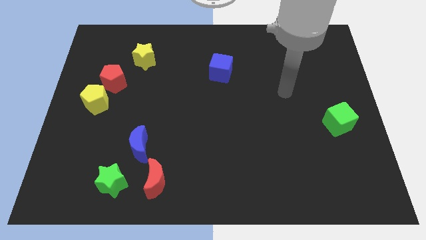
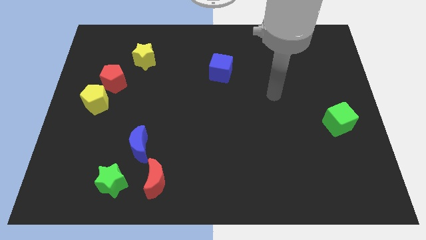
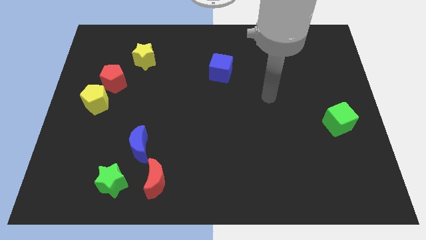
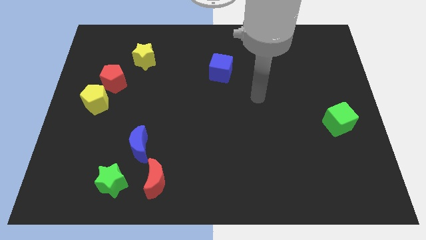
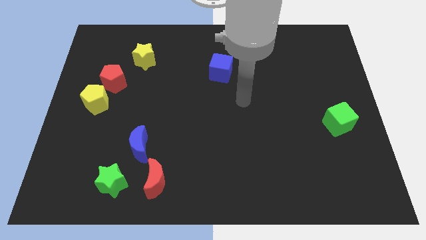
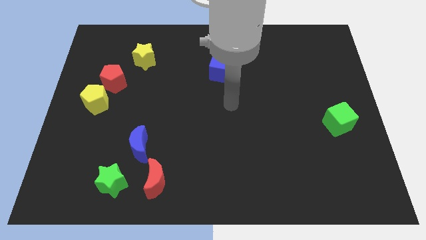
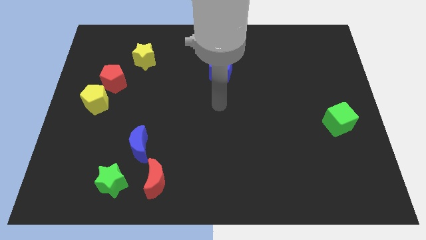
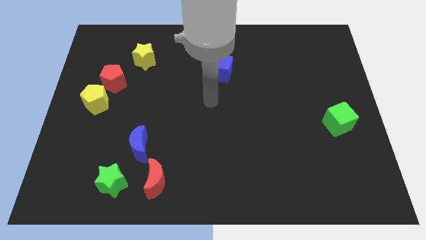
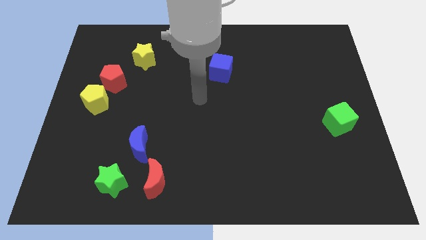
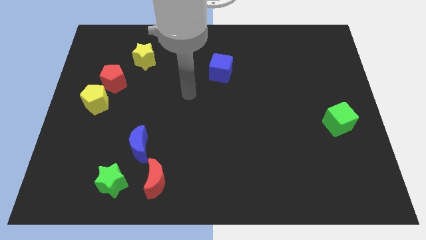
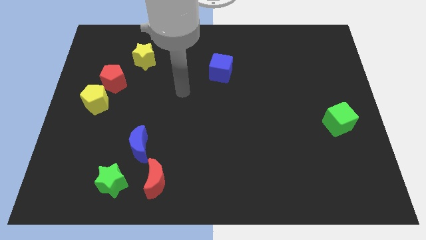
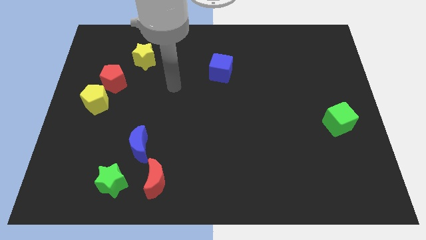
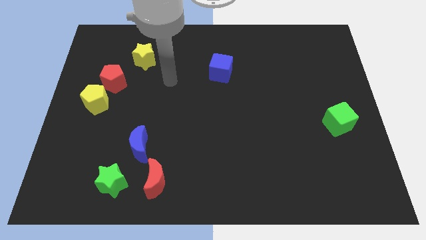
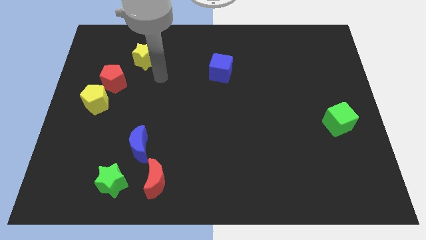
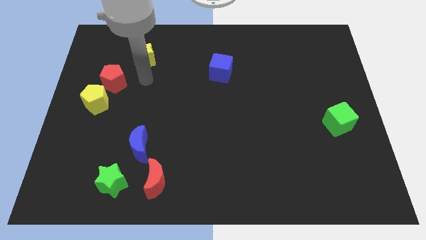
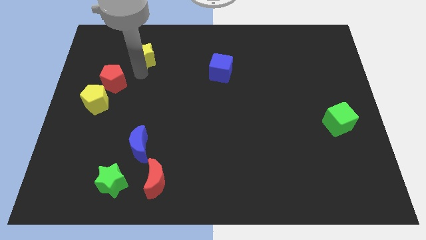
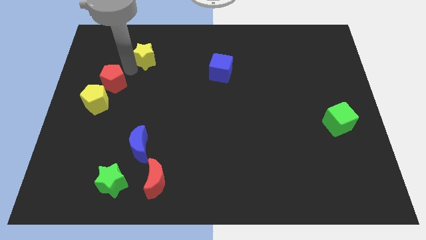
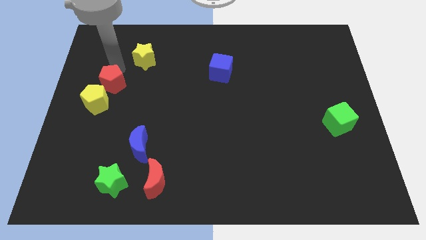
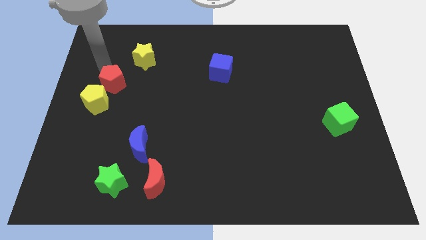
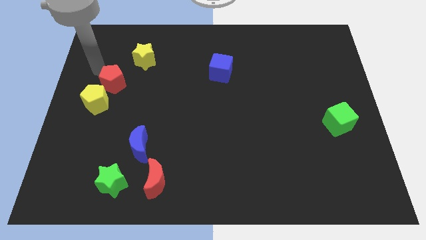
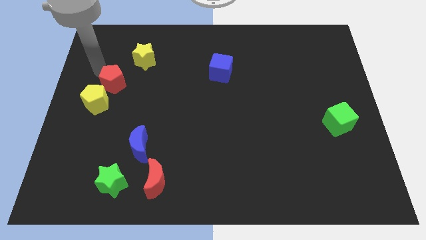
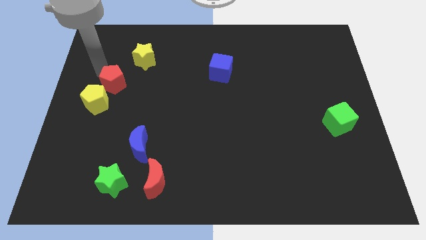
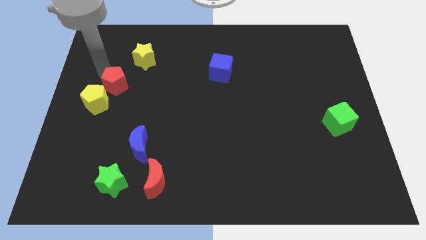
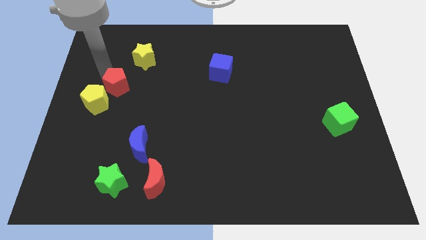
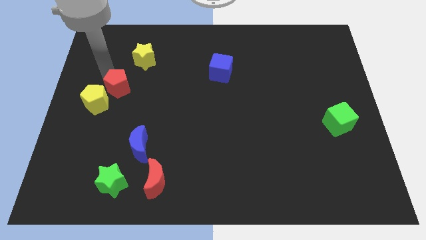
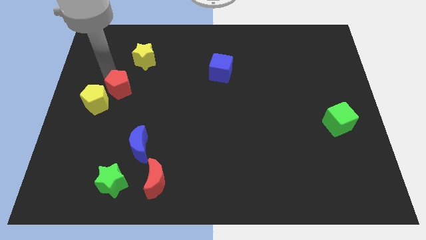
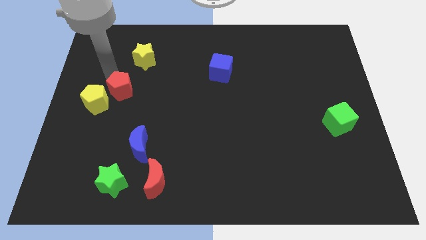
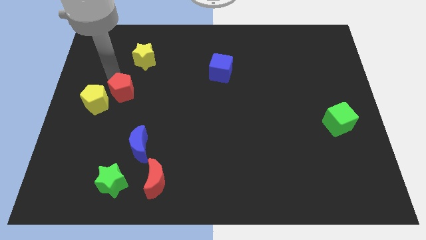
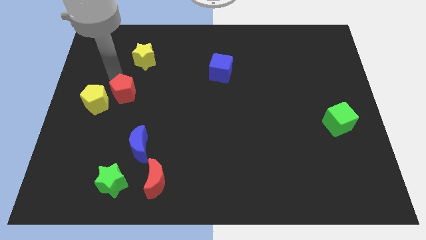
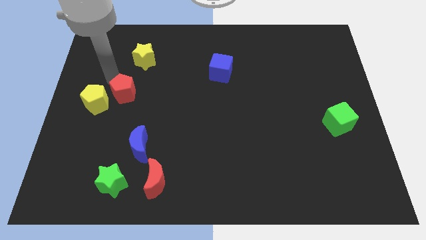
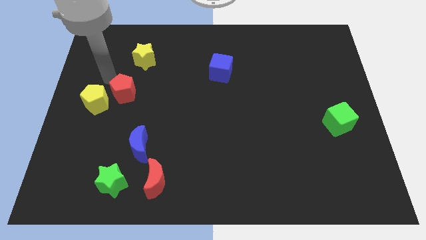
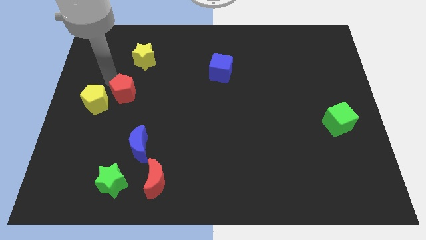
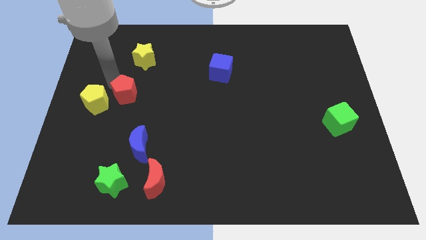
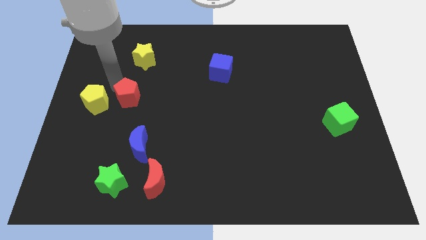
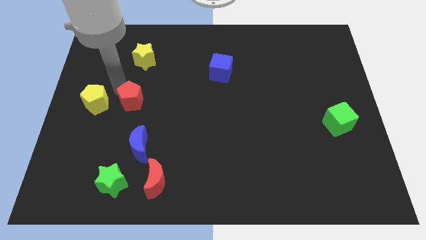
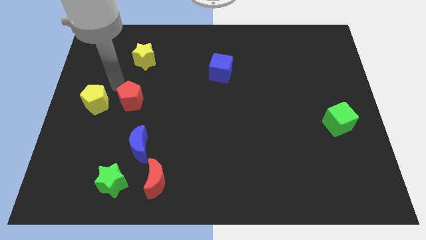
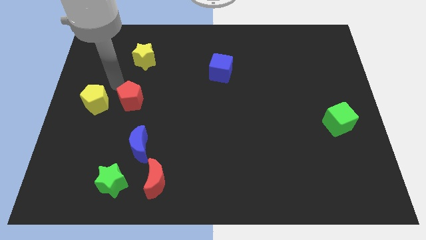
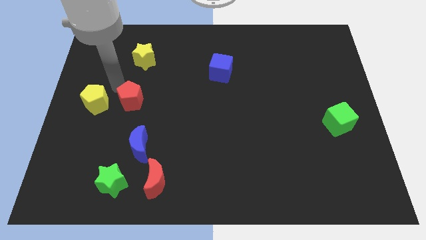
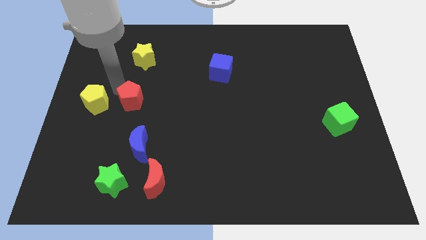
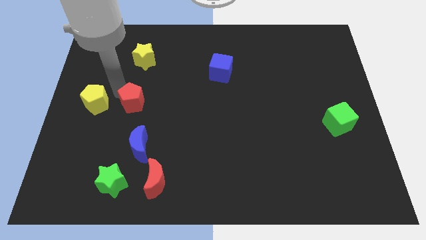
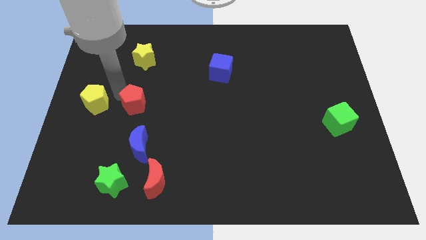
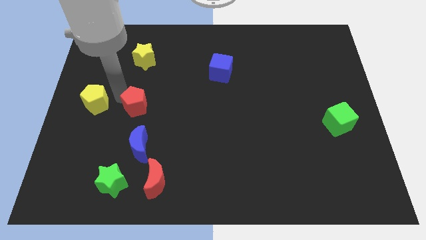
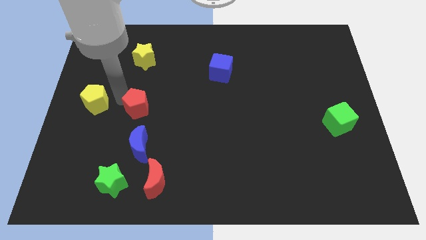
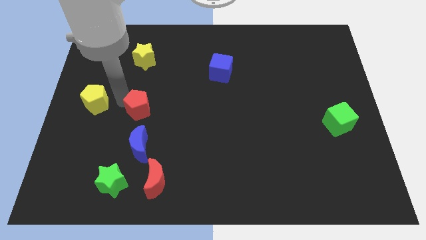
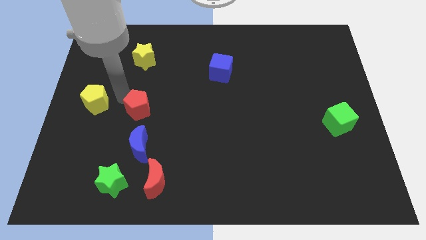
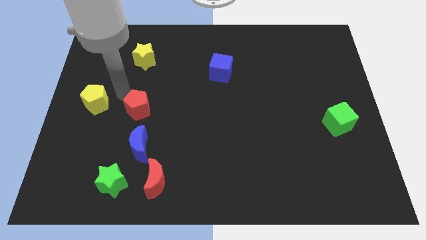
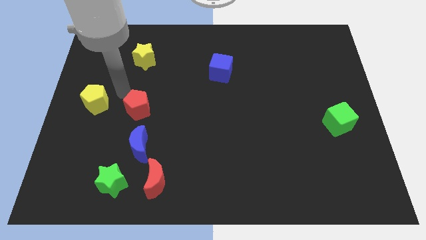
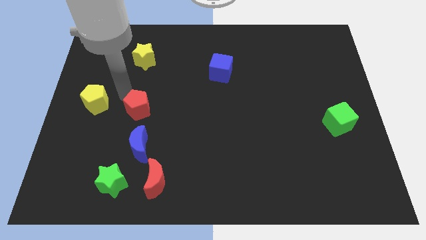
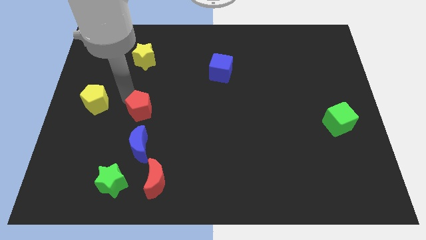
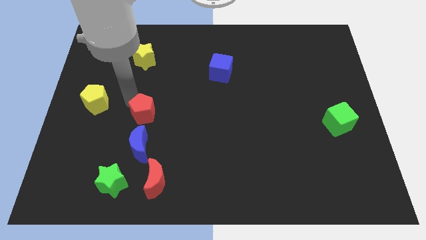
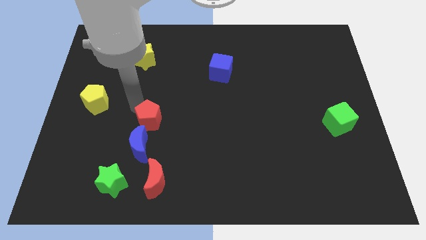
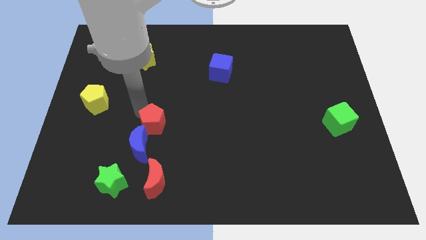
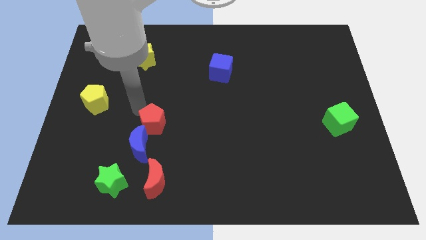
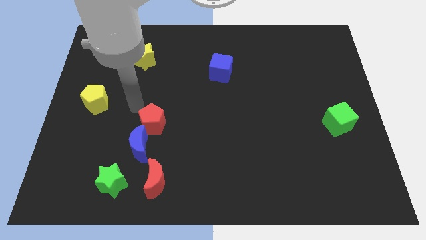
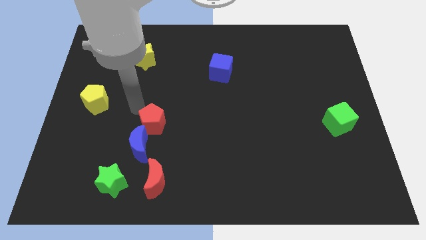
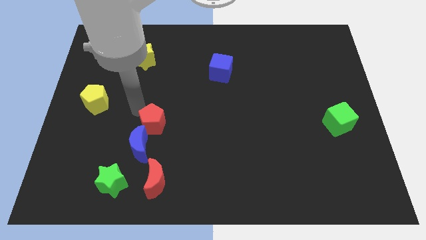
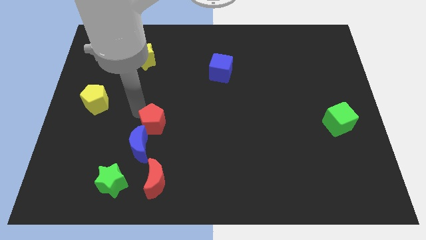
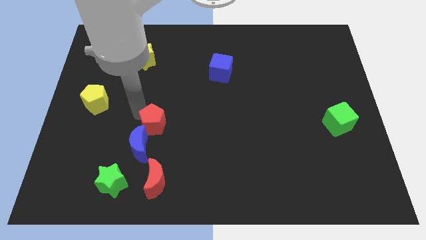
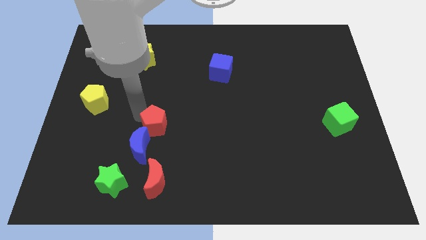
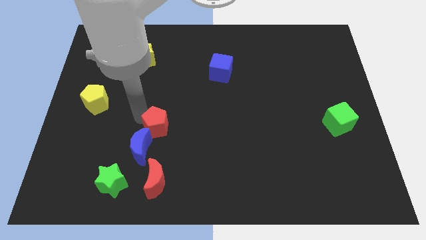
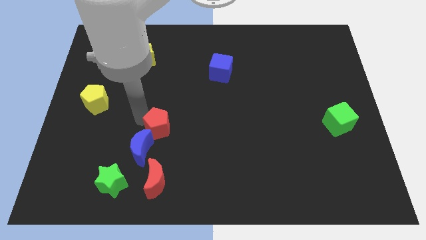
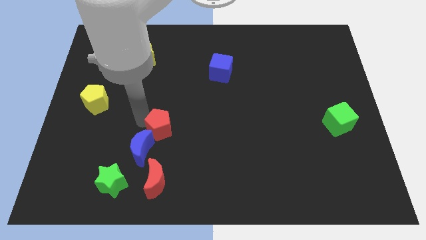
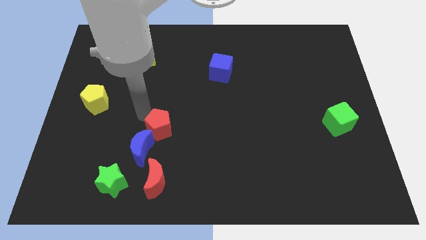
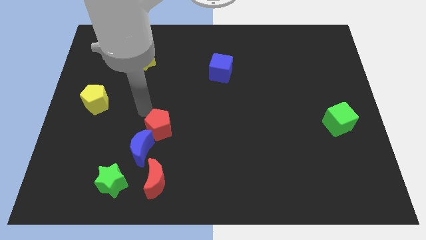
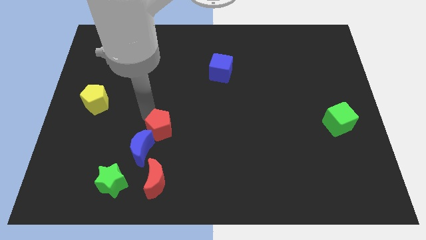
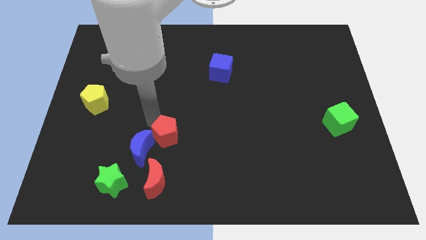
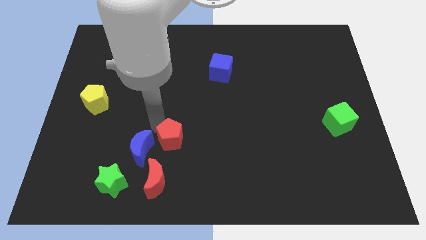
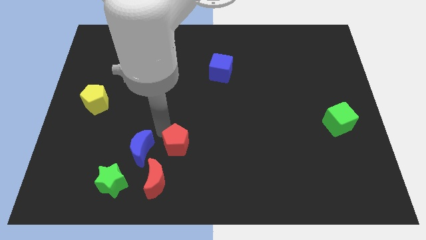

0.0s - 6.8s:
slide the red pentagon to the top right of the red moon
